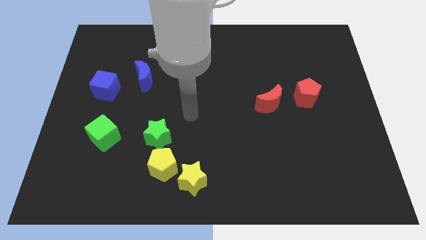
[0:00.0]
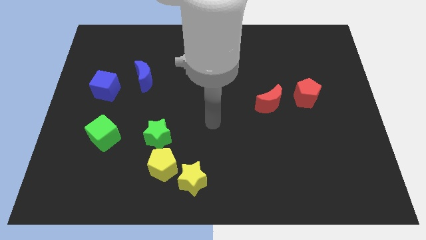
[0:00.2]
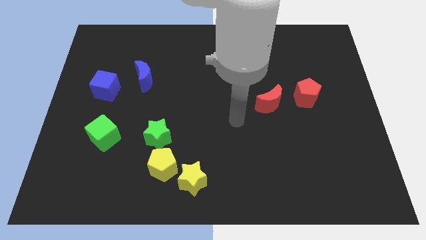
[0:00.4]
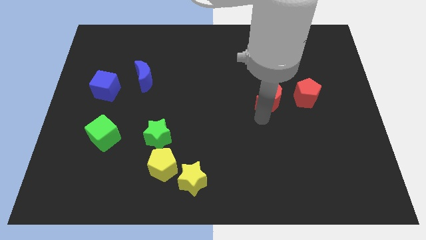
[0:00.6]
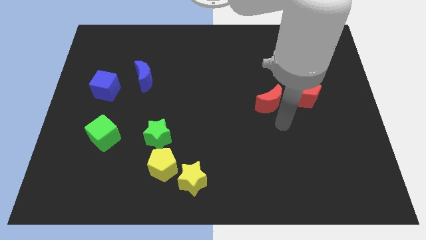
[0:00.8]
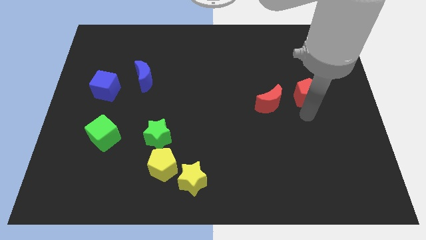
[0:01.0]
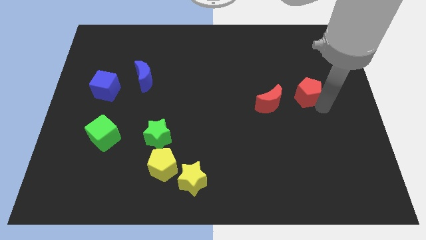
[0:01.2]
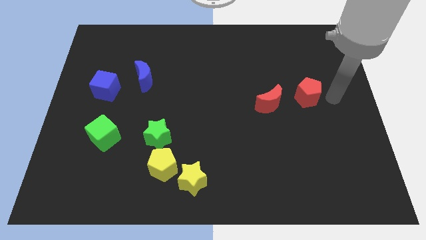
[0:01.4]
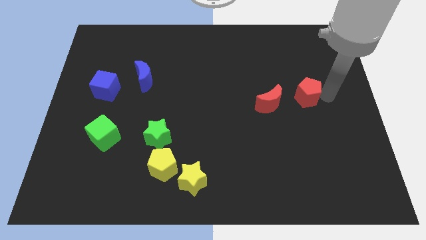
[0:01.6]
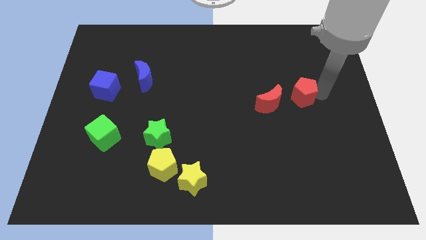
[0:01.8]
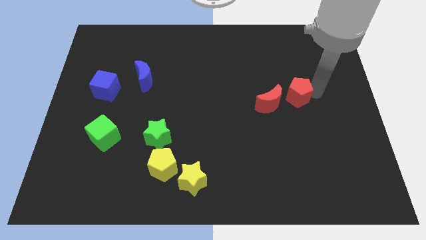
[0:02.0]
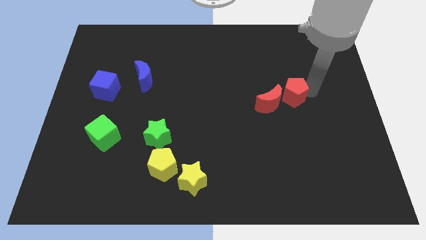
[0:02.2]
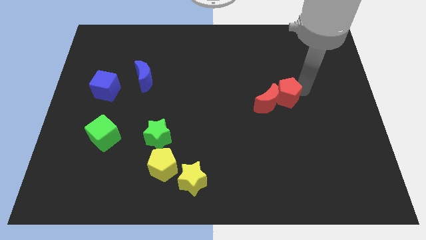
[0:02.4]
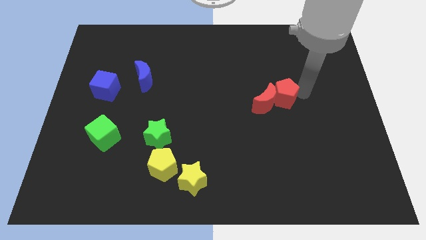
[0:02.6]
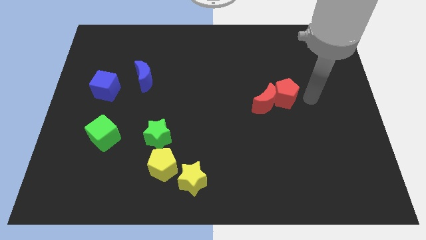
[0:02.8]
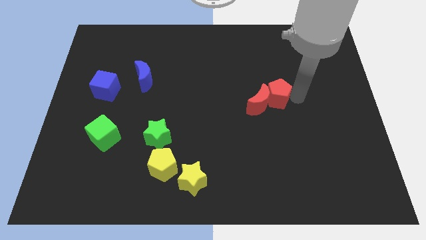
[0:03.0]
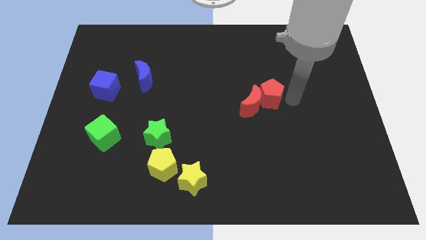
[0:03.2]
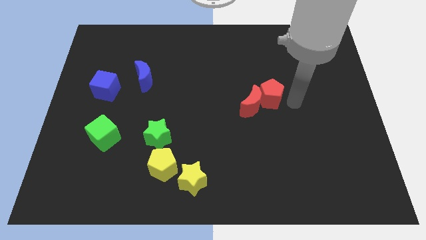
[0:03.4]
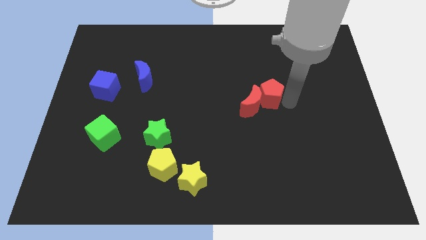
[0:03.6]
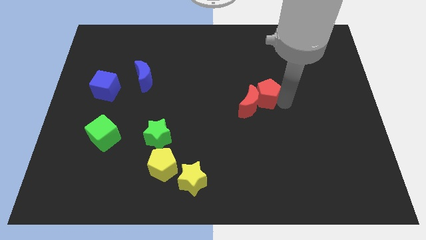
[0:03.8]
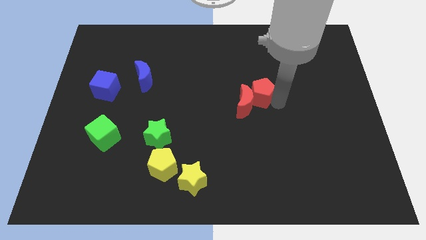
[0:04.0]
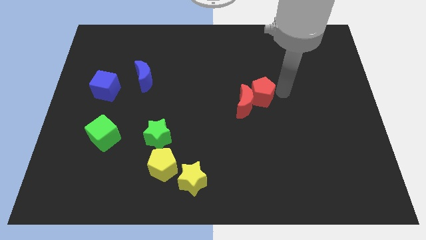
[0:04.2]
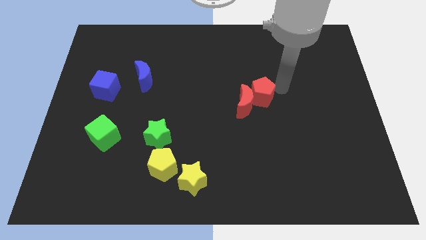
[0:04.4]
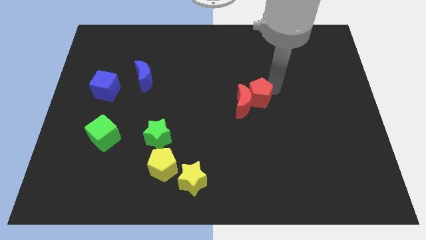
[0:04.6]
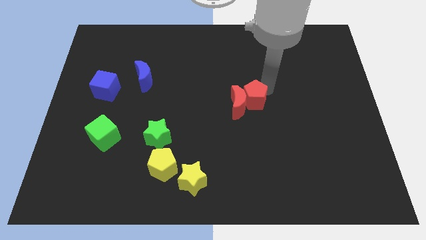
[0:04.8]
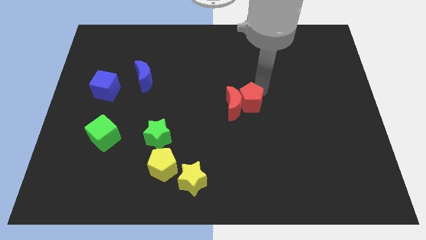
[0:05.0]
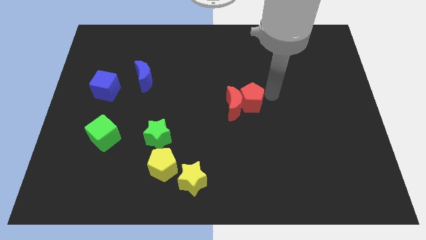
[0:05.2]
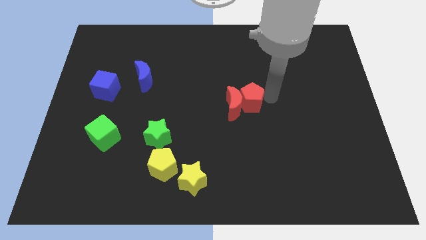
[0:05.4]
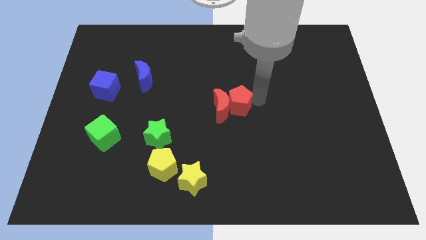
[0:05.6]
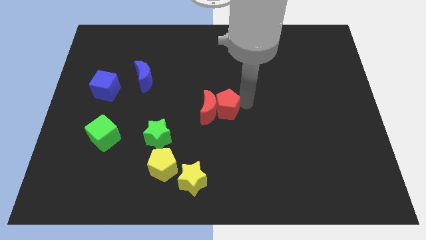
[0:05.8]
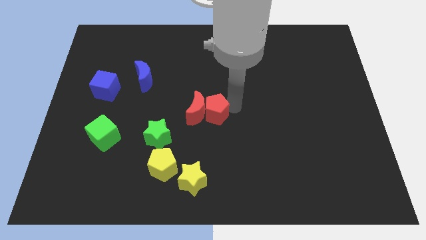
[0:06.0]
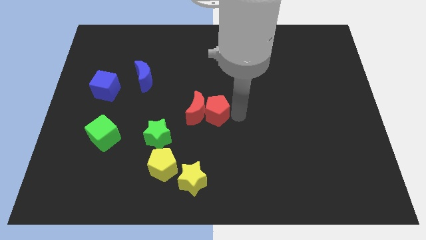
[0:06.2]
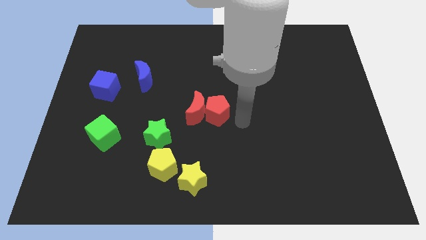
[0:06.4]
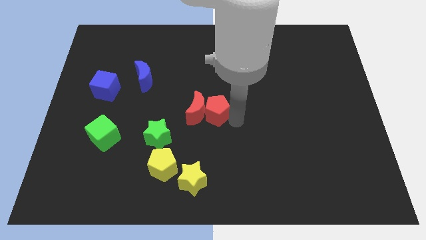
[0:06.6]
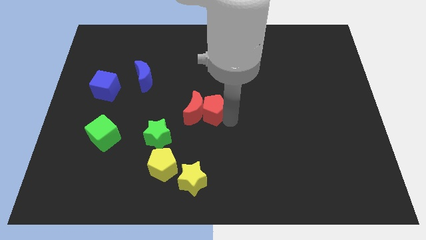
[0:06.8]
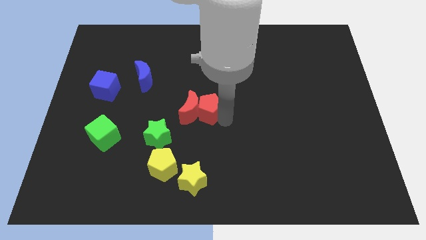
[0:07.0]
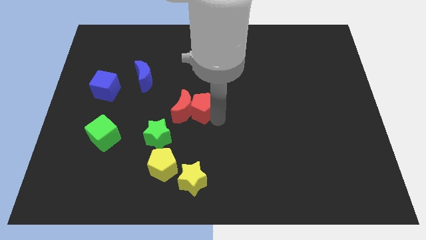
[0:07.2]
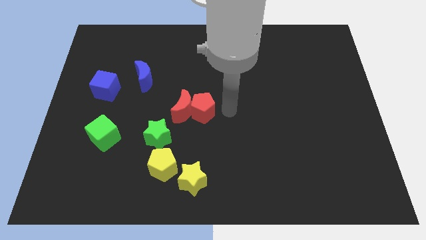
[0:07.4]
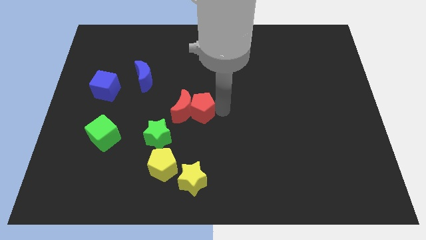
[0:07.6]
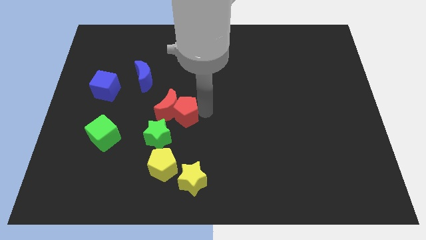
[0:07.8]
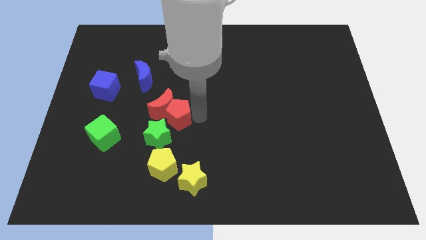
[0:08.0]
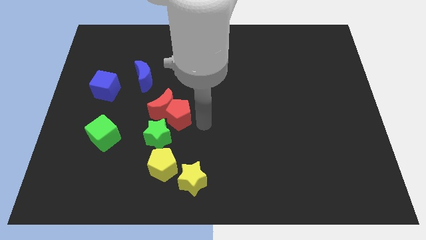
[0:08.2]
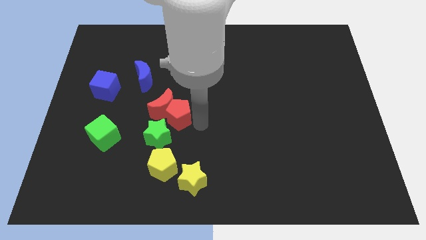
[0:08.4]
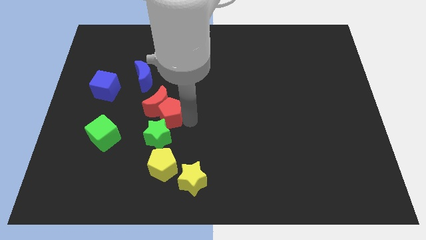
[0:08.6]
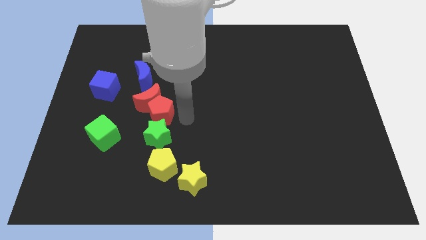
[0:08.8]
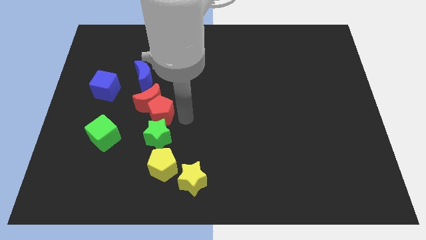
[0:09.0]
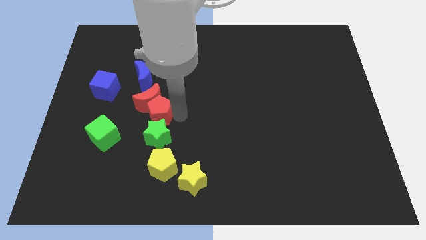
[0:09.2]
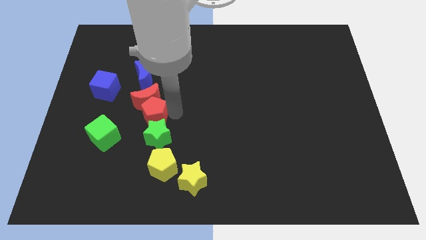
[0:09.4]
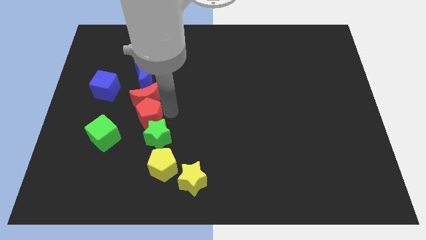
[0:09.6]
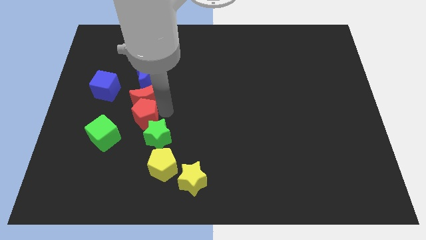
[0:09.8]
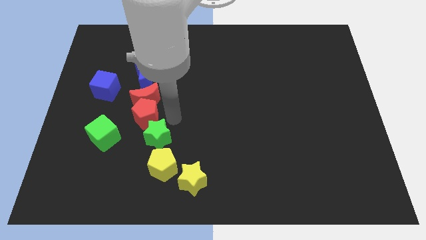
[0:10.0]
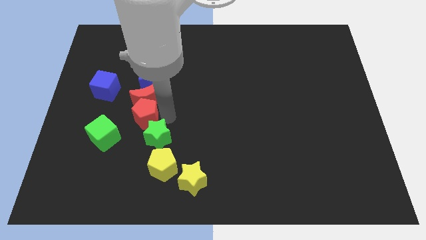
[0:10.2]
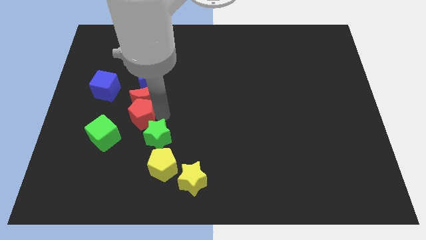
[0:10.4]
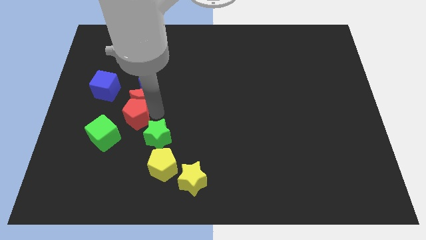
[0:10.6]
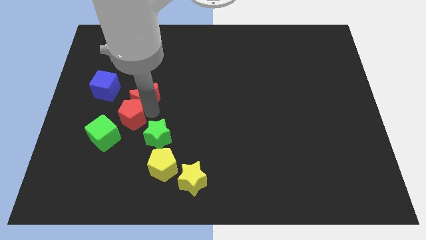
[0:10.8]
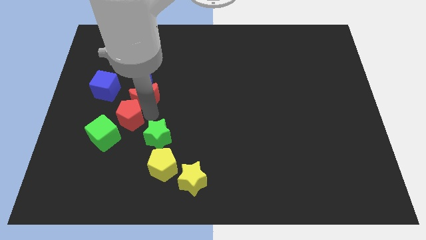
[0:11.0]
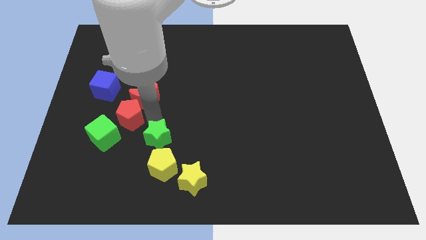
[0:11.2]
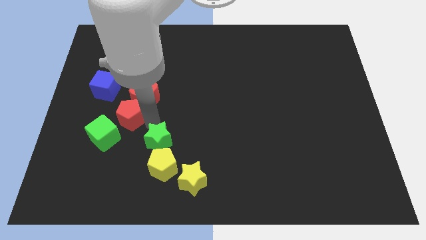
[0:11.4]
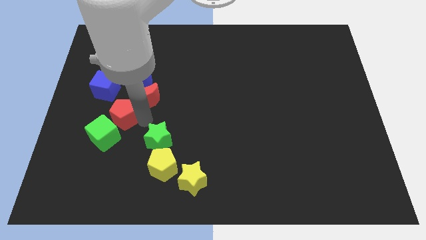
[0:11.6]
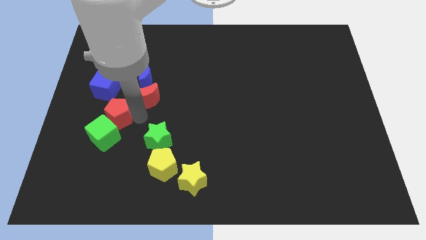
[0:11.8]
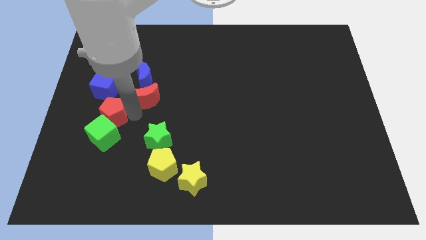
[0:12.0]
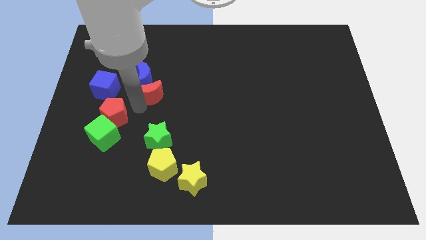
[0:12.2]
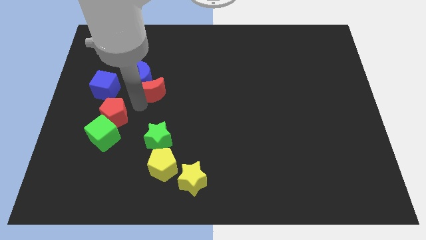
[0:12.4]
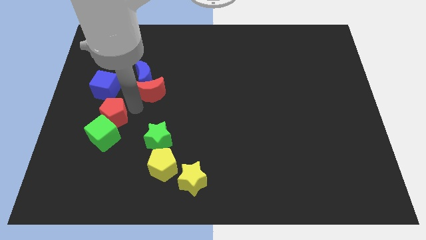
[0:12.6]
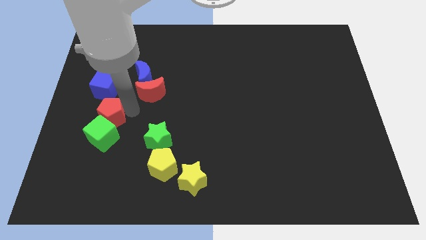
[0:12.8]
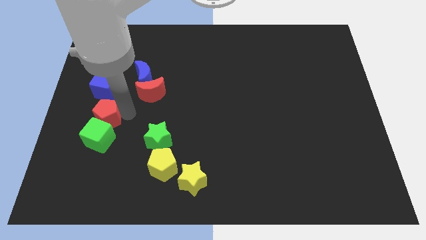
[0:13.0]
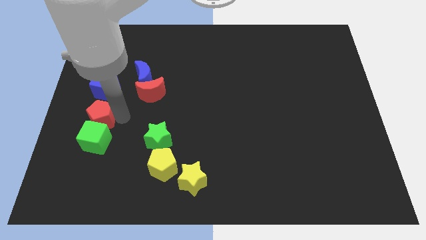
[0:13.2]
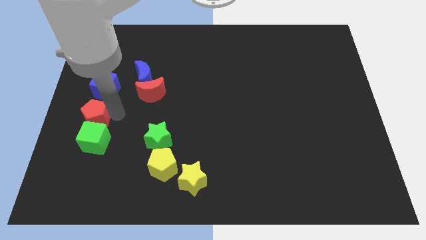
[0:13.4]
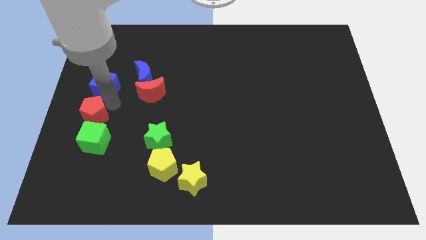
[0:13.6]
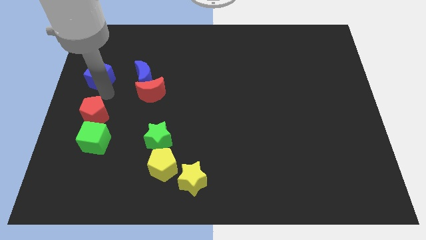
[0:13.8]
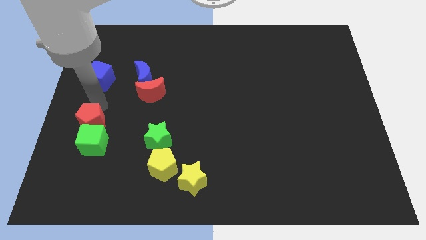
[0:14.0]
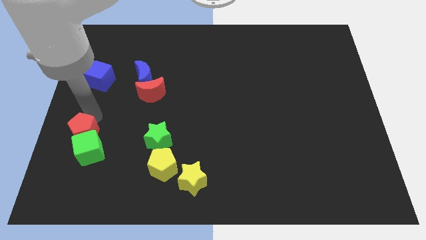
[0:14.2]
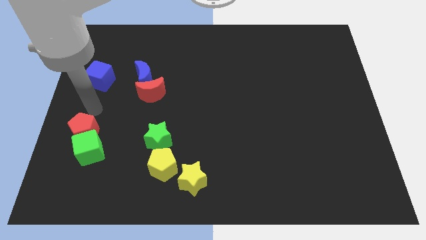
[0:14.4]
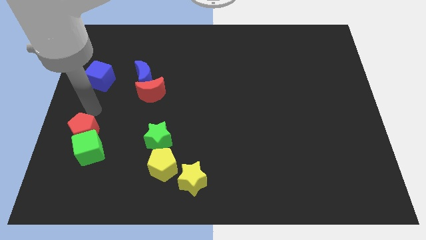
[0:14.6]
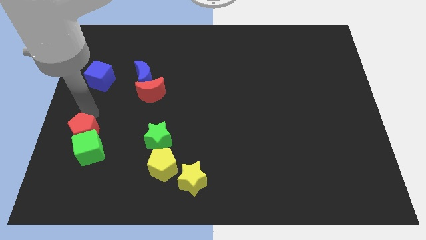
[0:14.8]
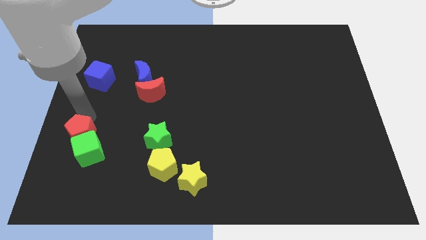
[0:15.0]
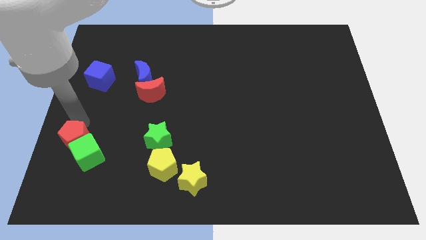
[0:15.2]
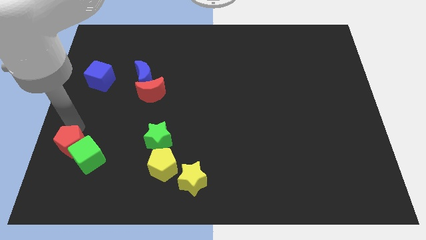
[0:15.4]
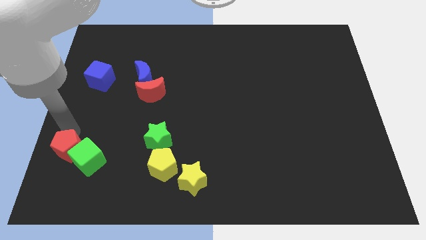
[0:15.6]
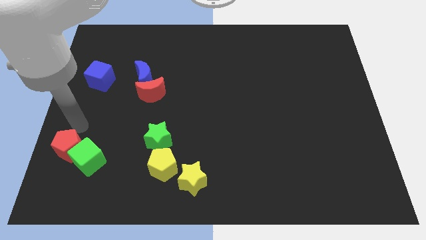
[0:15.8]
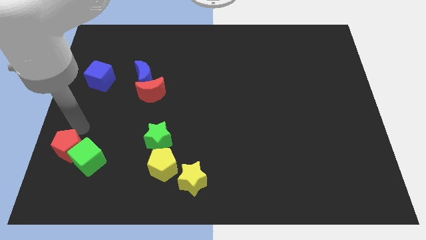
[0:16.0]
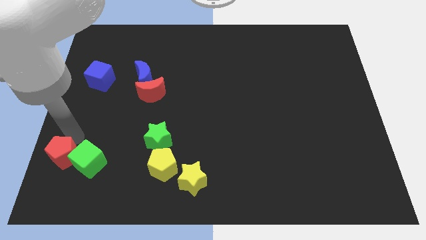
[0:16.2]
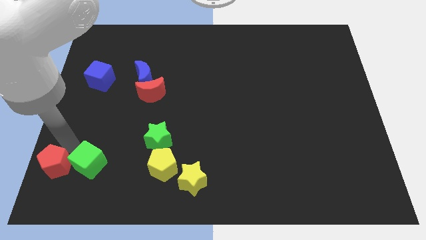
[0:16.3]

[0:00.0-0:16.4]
slide the red pentagon to the bottom left of the board
